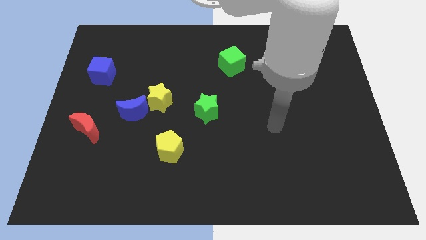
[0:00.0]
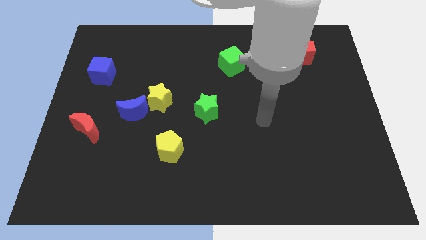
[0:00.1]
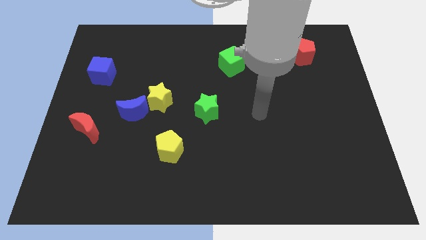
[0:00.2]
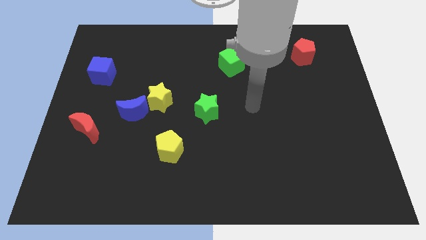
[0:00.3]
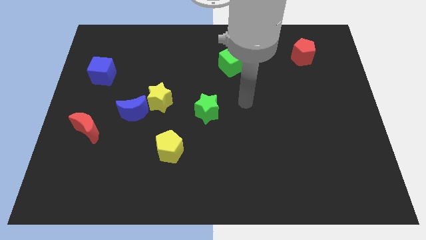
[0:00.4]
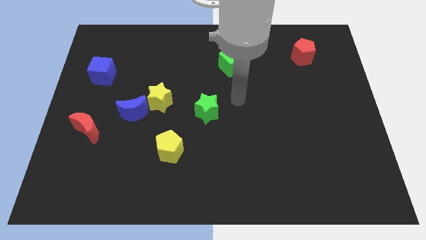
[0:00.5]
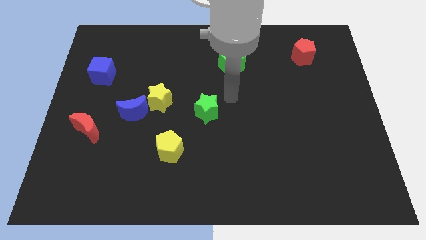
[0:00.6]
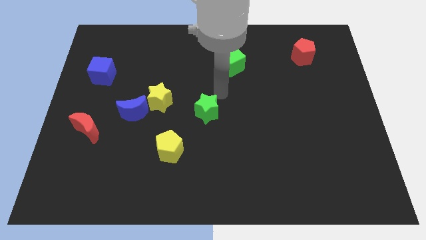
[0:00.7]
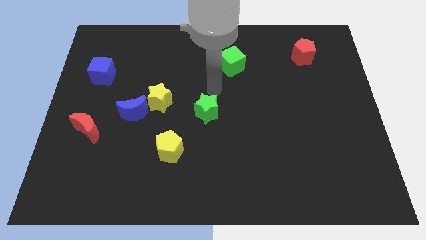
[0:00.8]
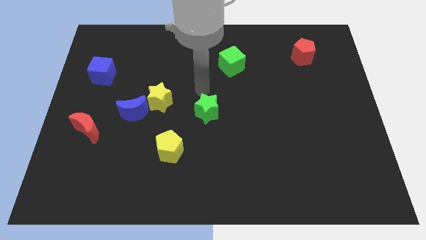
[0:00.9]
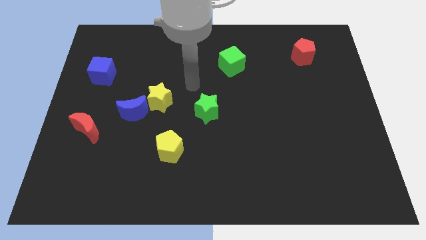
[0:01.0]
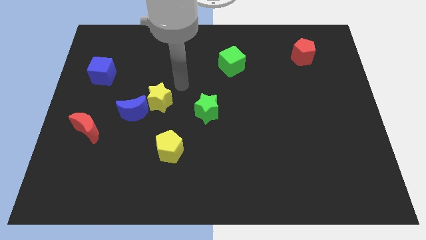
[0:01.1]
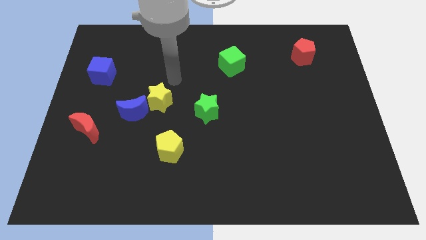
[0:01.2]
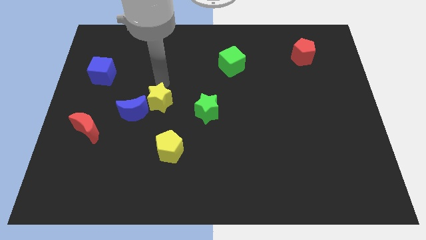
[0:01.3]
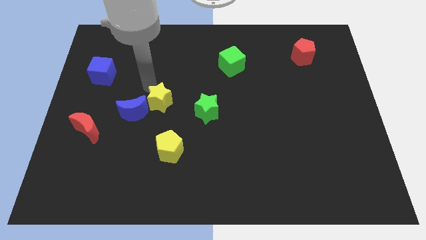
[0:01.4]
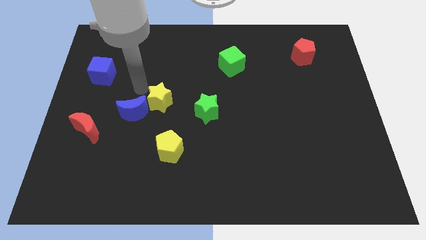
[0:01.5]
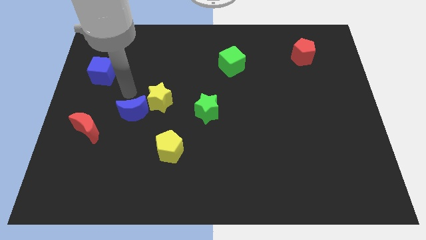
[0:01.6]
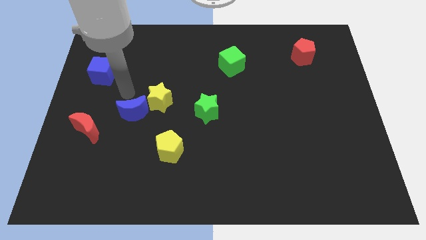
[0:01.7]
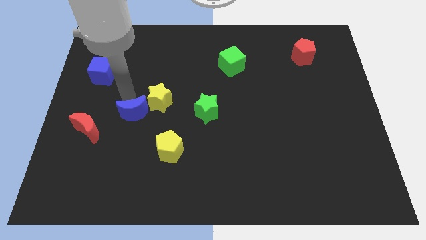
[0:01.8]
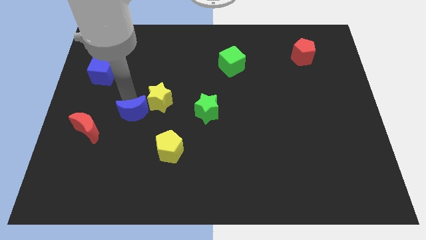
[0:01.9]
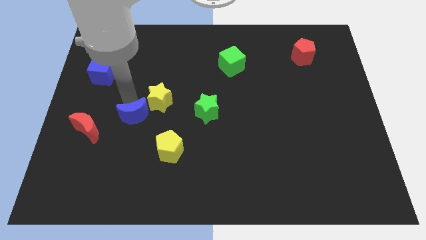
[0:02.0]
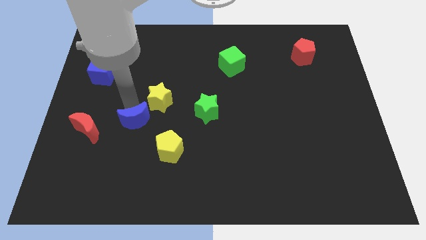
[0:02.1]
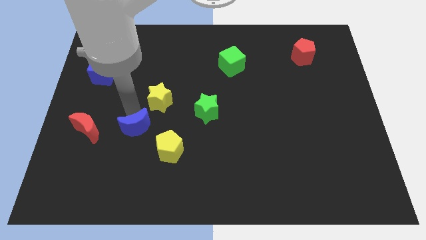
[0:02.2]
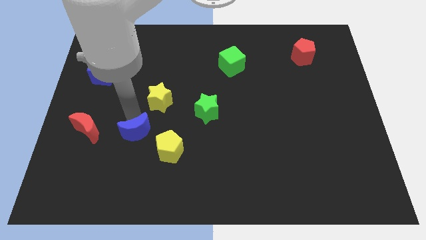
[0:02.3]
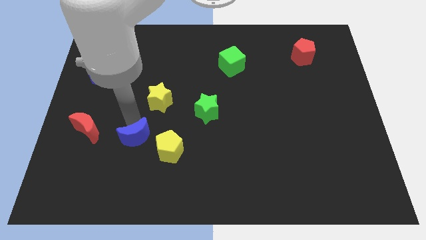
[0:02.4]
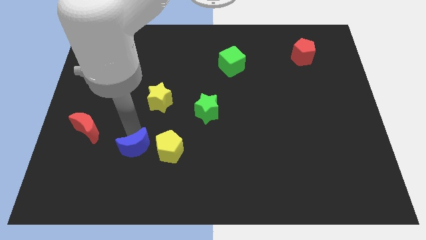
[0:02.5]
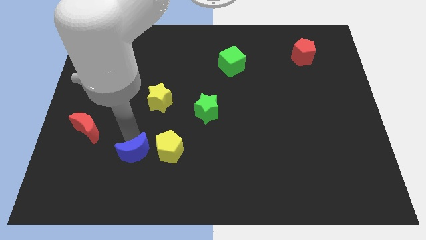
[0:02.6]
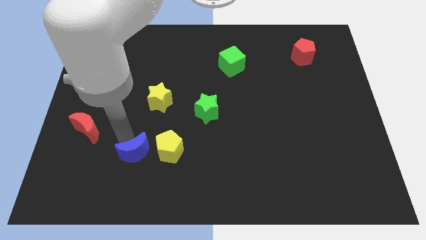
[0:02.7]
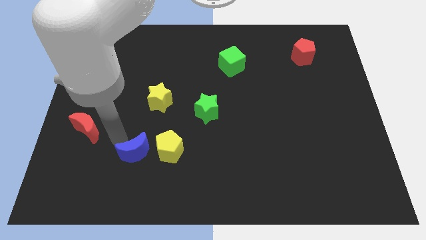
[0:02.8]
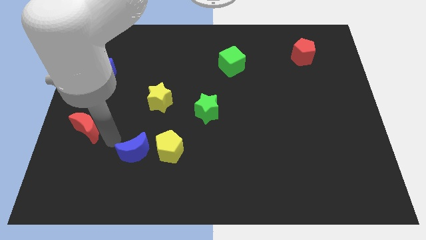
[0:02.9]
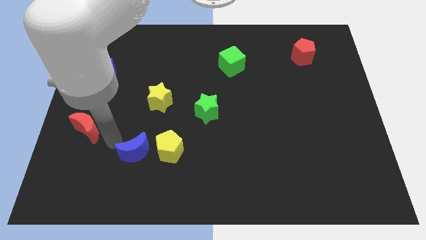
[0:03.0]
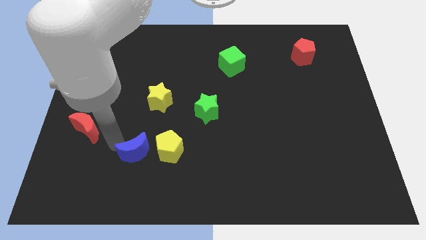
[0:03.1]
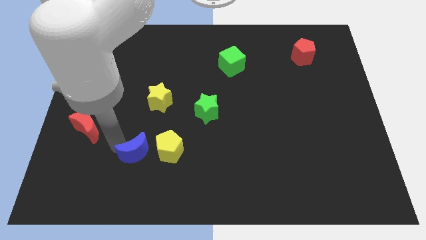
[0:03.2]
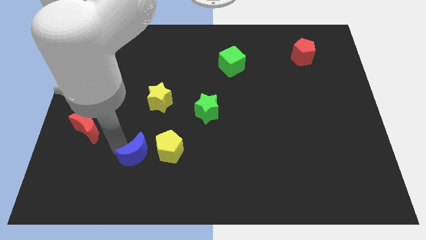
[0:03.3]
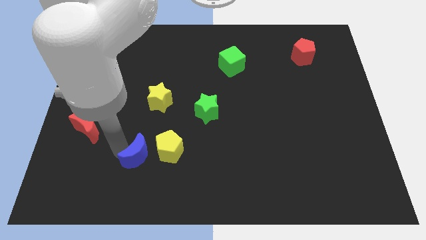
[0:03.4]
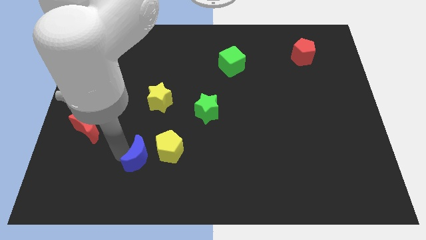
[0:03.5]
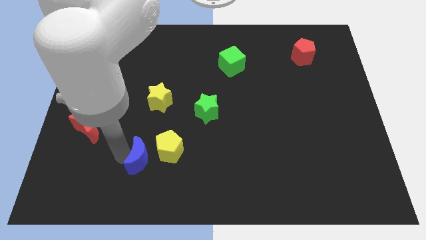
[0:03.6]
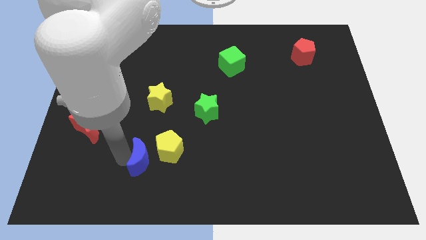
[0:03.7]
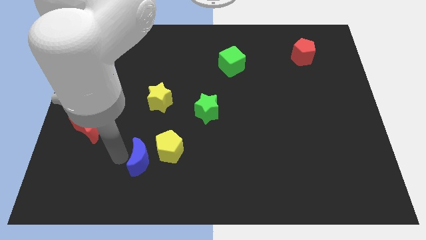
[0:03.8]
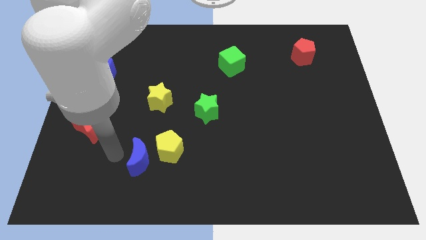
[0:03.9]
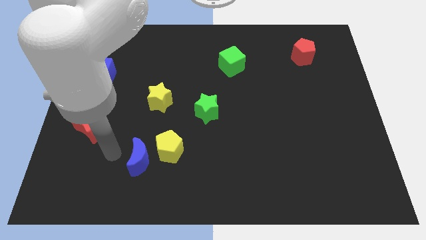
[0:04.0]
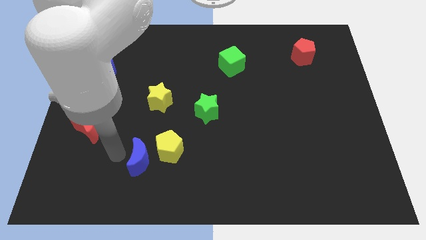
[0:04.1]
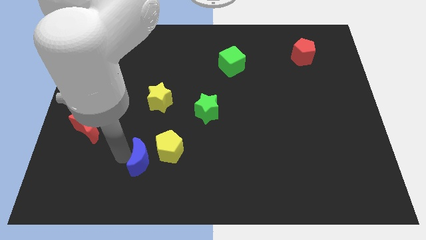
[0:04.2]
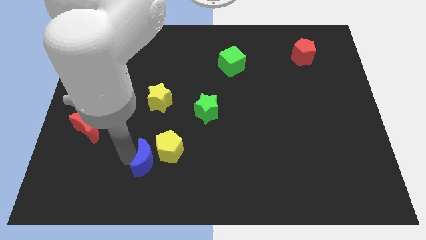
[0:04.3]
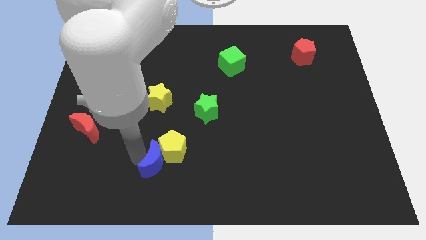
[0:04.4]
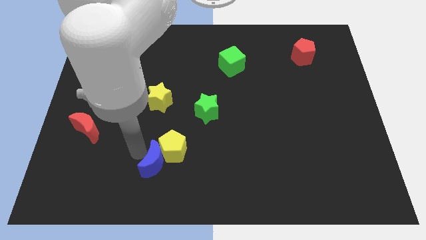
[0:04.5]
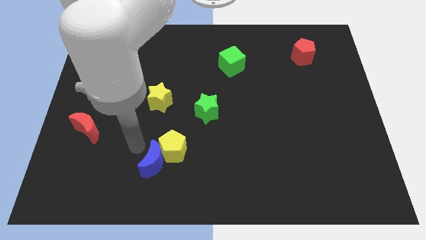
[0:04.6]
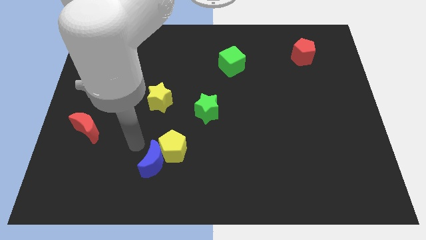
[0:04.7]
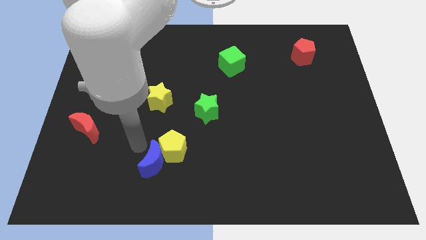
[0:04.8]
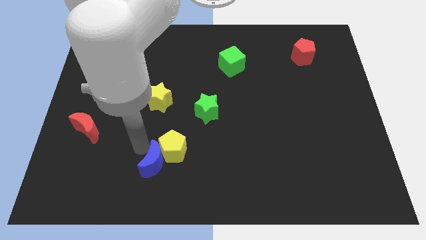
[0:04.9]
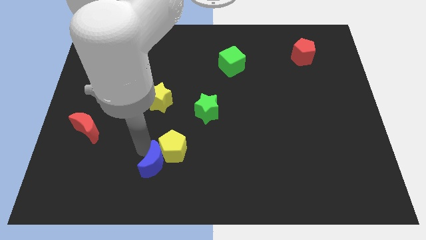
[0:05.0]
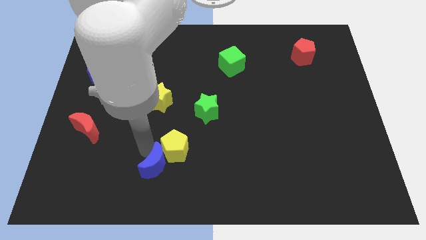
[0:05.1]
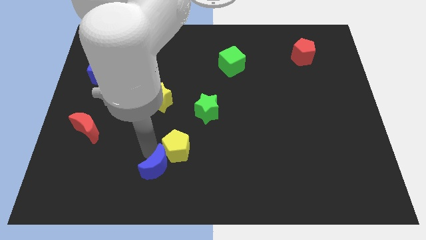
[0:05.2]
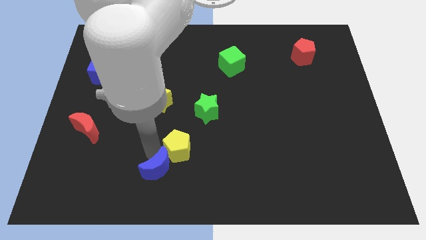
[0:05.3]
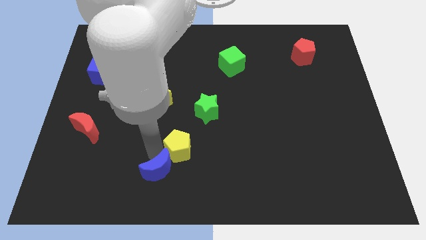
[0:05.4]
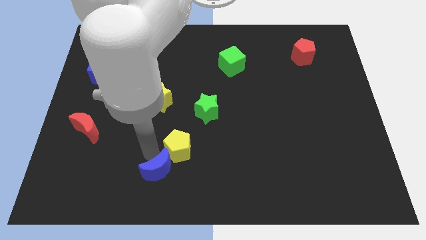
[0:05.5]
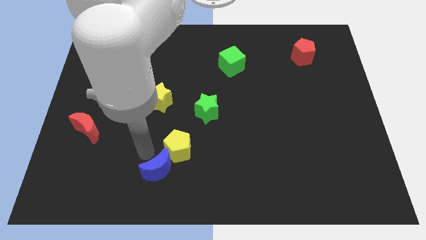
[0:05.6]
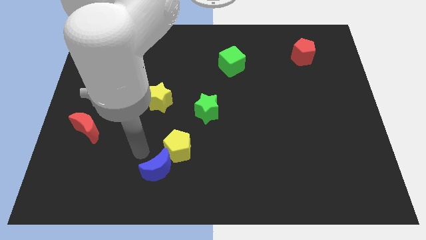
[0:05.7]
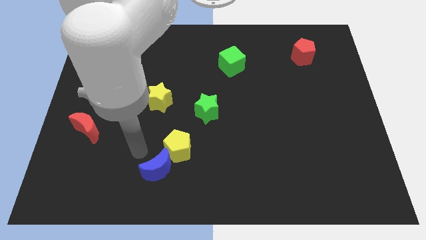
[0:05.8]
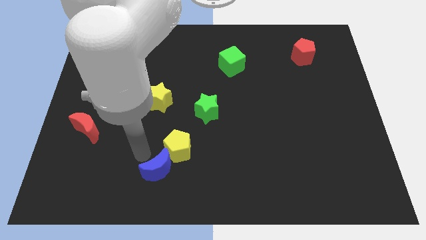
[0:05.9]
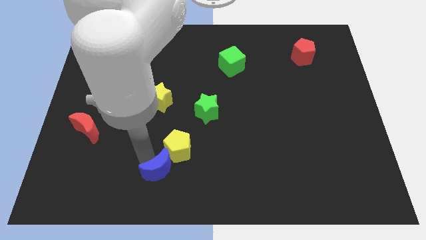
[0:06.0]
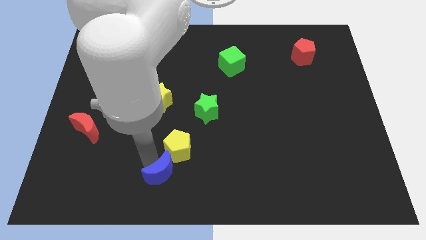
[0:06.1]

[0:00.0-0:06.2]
put the blue moon to the bottom
